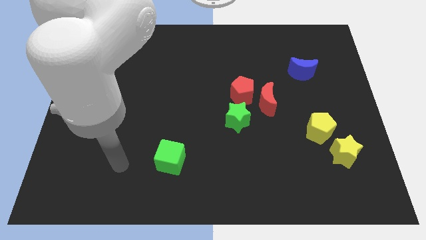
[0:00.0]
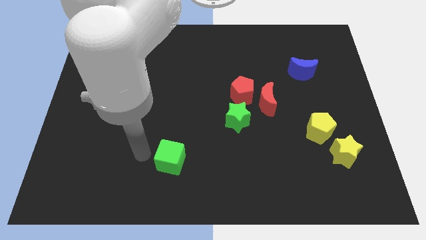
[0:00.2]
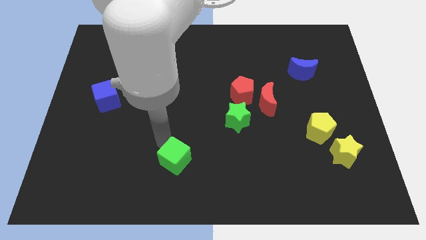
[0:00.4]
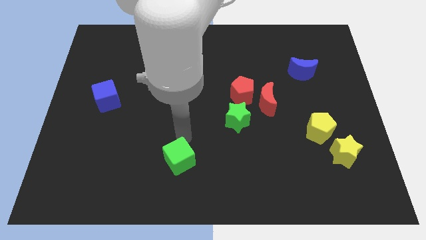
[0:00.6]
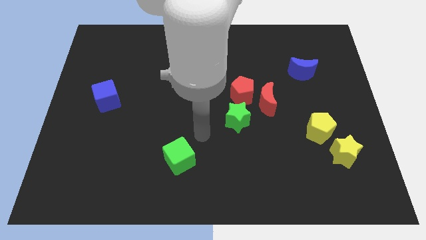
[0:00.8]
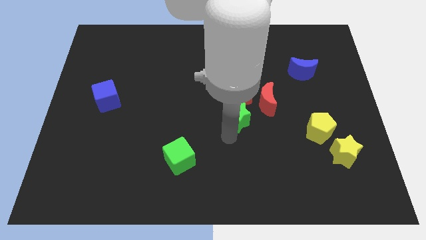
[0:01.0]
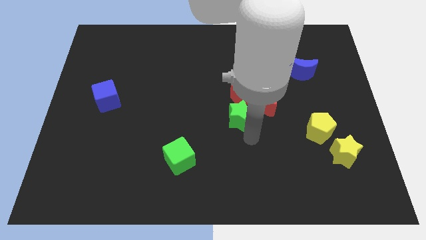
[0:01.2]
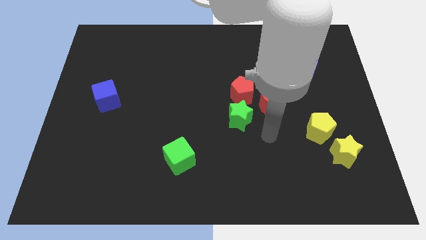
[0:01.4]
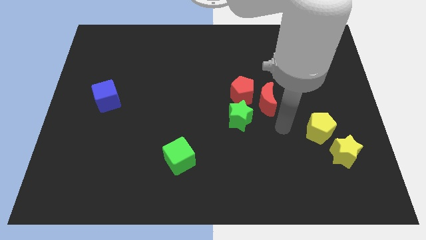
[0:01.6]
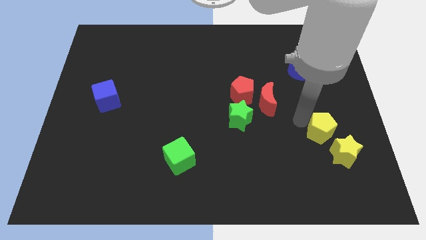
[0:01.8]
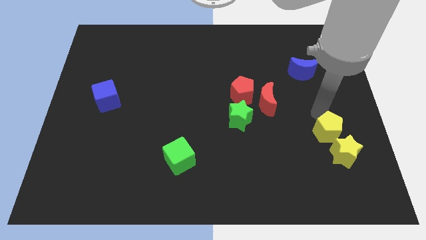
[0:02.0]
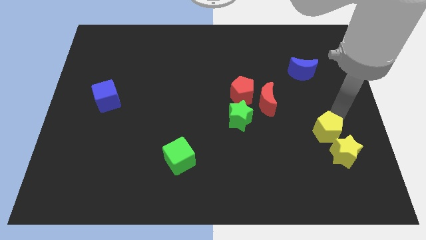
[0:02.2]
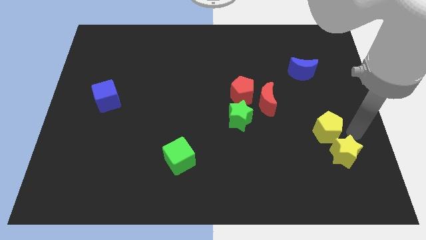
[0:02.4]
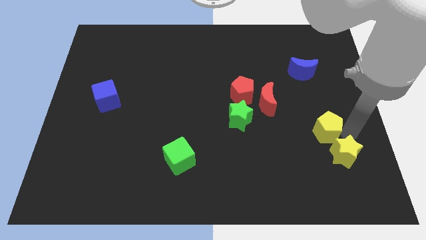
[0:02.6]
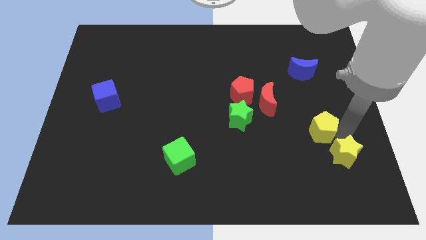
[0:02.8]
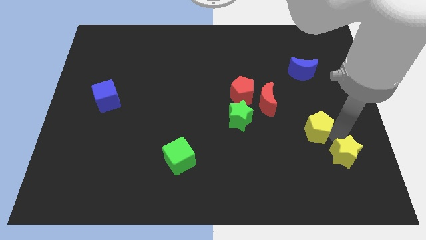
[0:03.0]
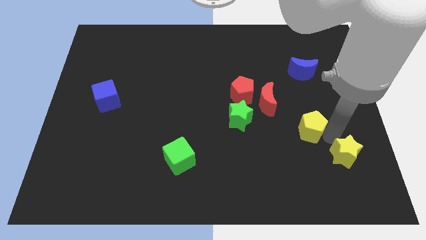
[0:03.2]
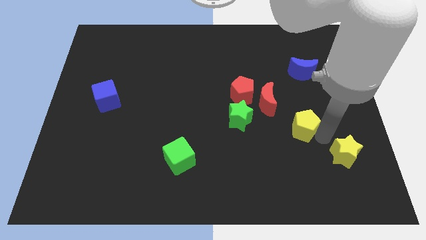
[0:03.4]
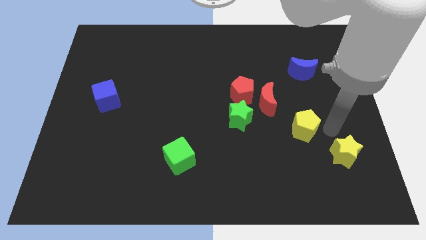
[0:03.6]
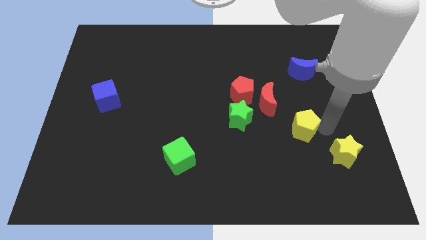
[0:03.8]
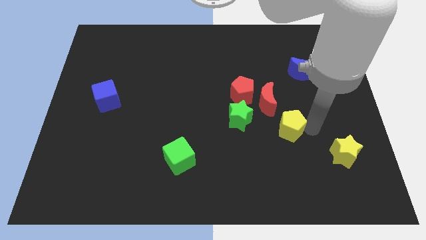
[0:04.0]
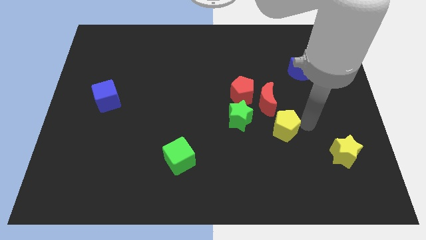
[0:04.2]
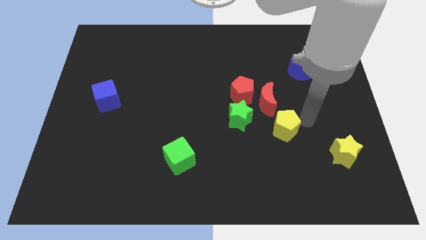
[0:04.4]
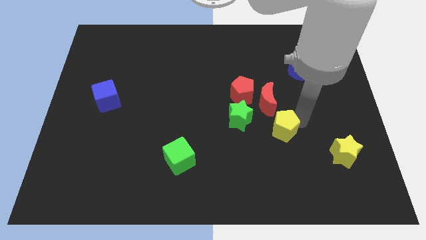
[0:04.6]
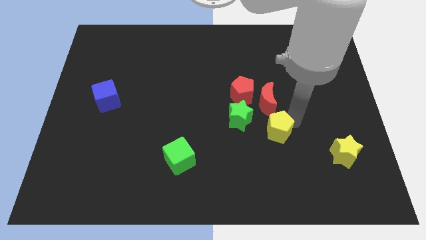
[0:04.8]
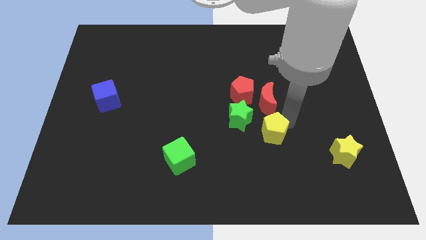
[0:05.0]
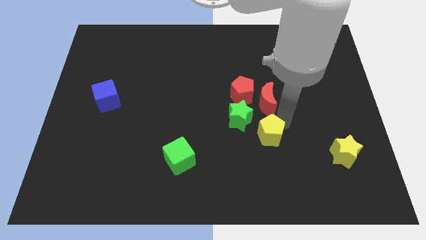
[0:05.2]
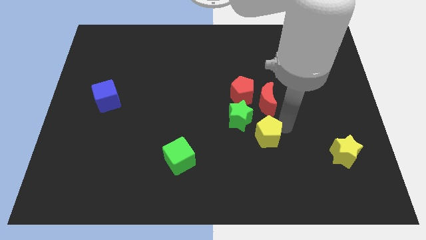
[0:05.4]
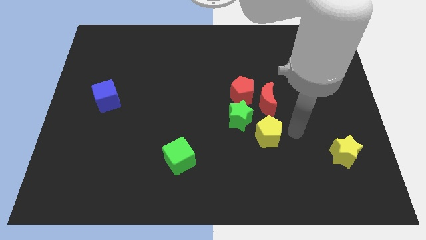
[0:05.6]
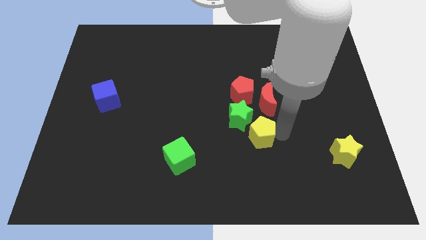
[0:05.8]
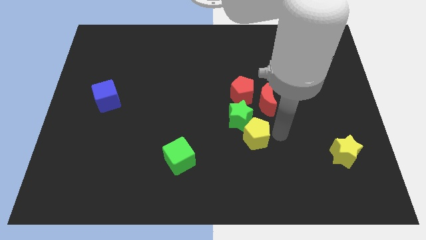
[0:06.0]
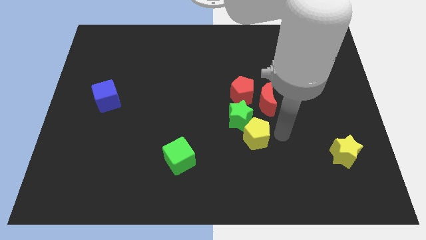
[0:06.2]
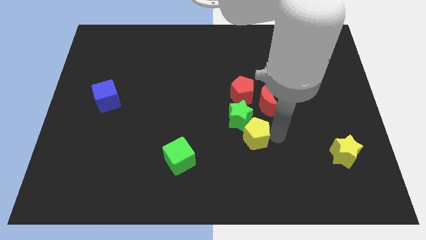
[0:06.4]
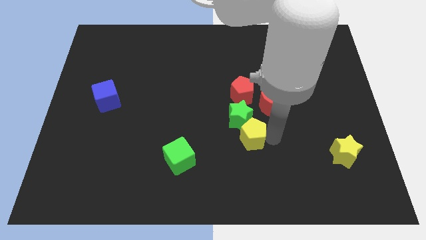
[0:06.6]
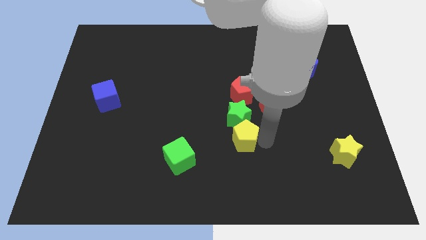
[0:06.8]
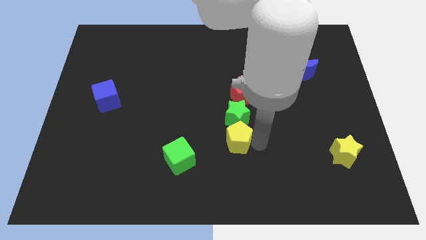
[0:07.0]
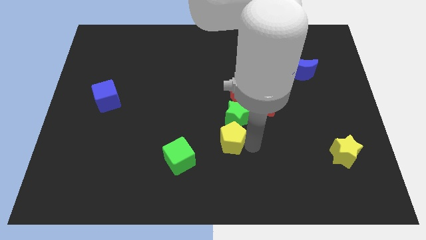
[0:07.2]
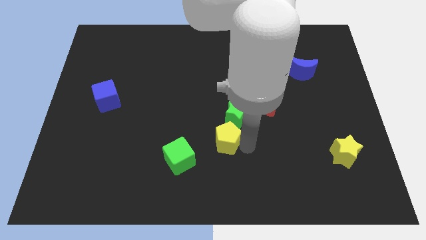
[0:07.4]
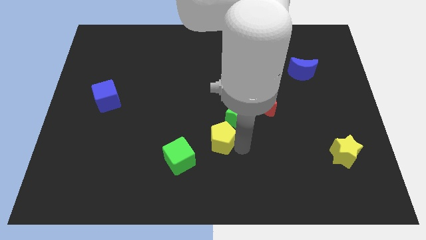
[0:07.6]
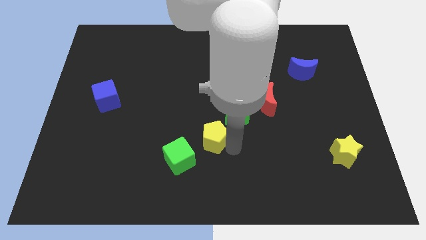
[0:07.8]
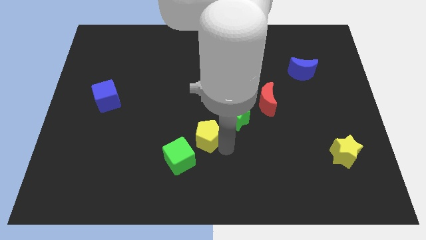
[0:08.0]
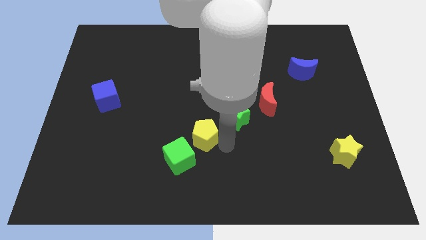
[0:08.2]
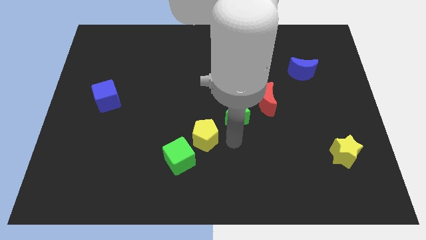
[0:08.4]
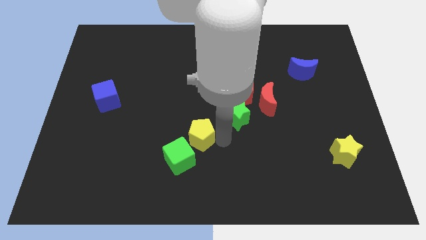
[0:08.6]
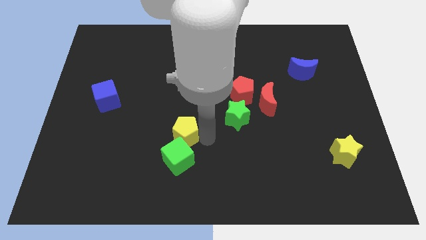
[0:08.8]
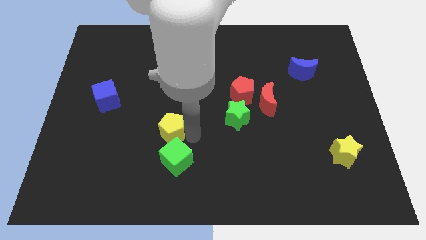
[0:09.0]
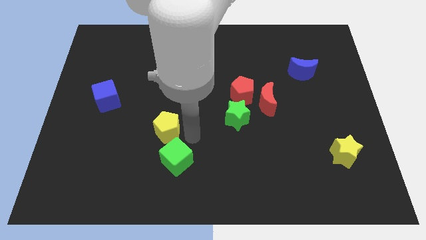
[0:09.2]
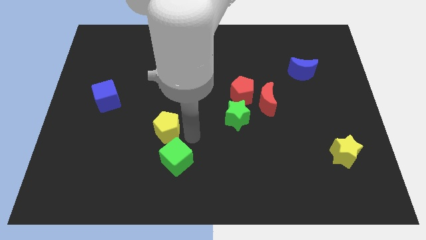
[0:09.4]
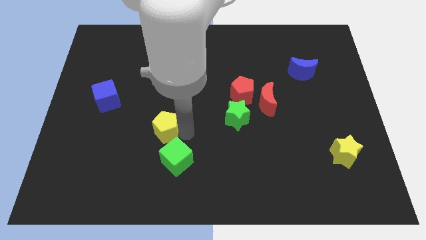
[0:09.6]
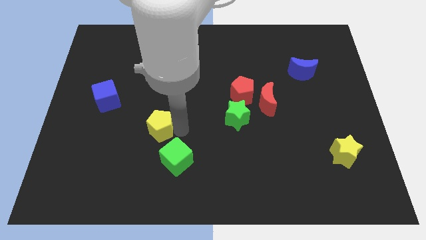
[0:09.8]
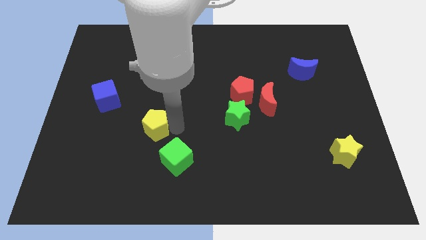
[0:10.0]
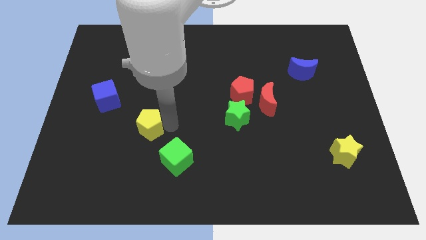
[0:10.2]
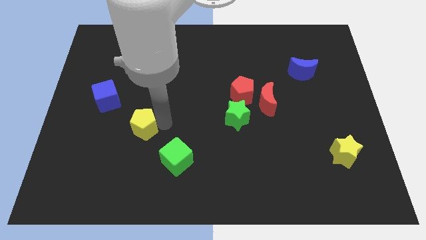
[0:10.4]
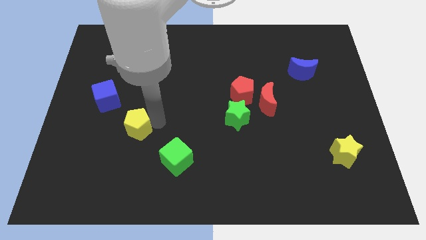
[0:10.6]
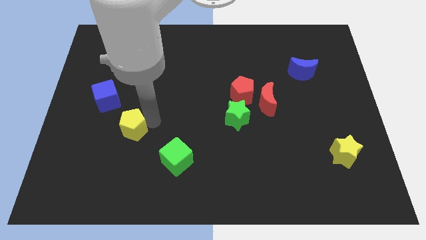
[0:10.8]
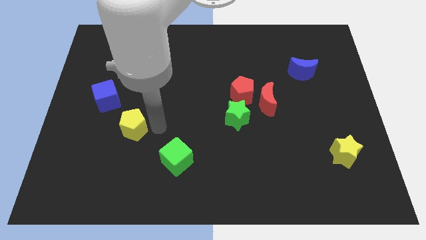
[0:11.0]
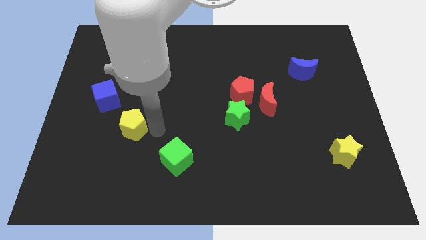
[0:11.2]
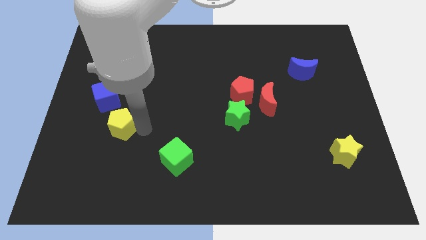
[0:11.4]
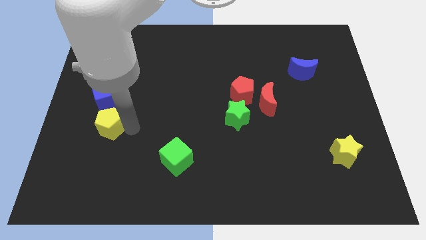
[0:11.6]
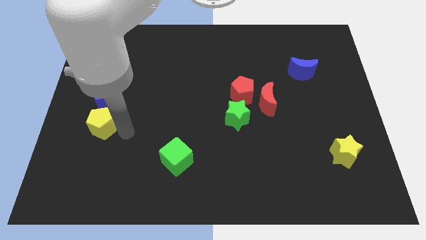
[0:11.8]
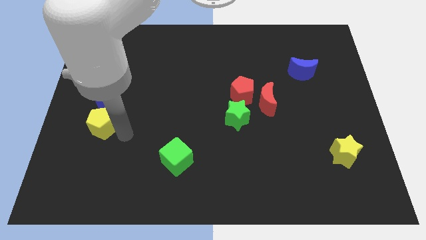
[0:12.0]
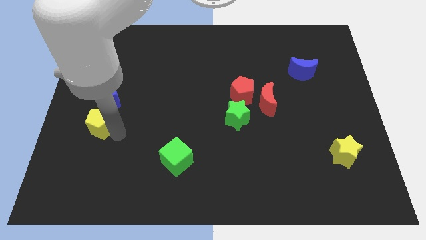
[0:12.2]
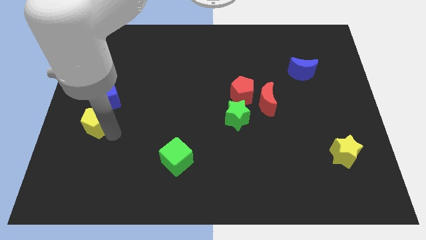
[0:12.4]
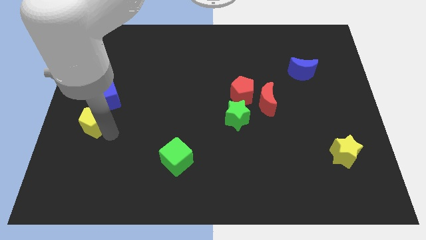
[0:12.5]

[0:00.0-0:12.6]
put the yellow pentagon to the center left

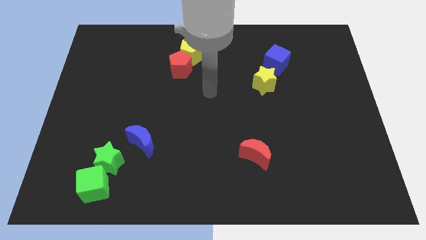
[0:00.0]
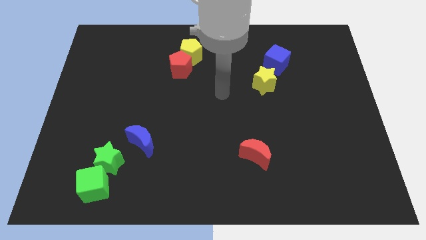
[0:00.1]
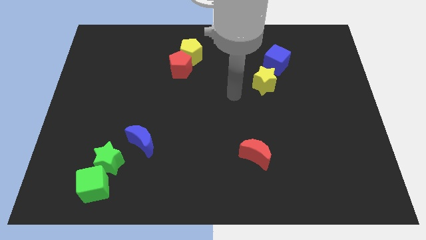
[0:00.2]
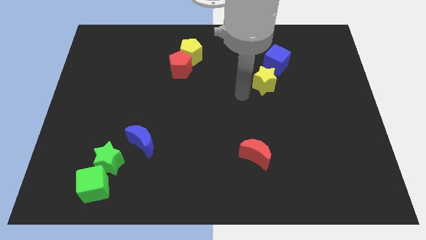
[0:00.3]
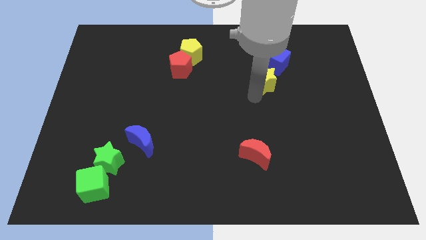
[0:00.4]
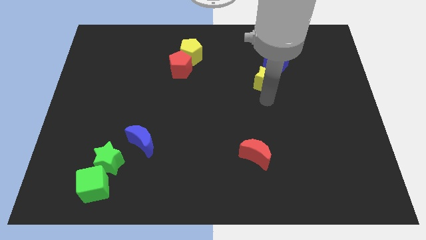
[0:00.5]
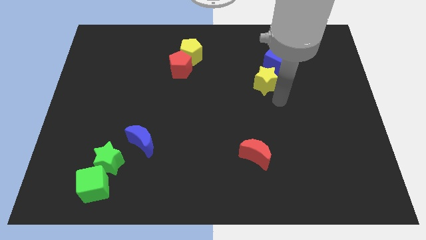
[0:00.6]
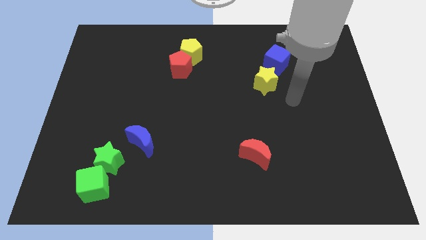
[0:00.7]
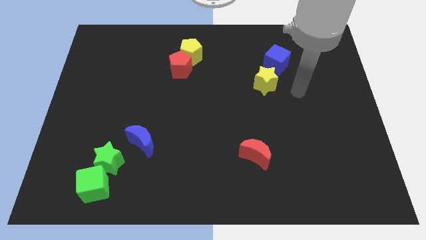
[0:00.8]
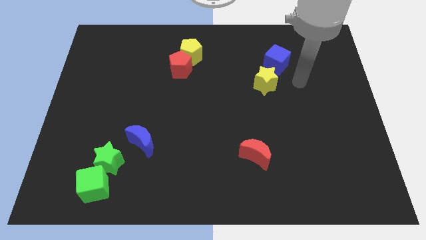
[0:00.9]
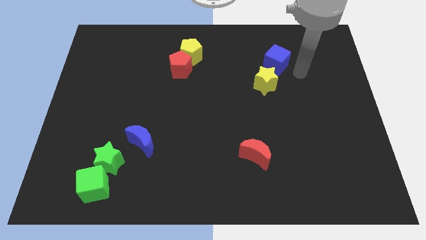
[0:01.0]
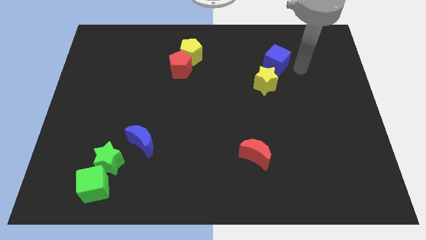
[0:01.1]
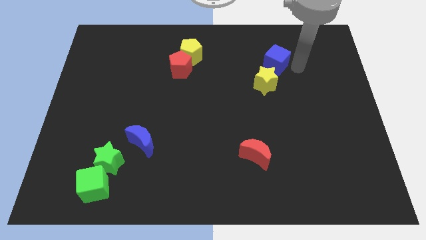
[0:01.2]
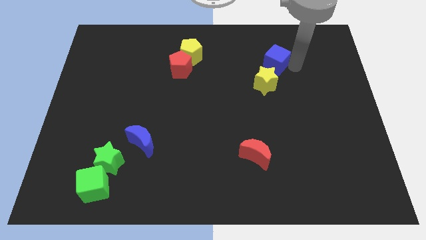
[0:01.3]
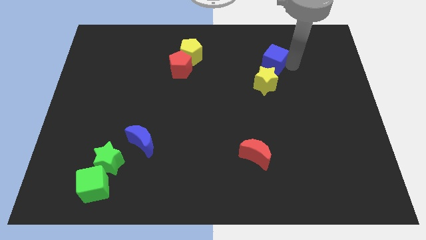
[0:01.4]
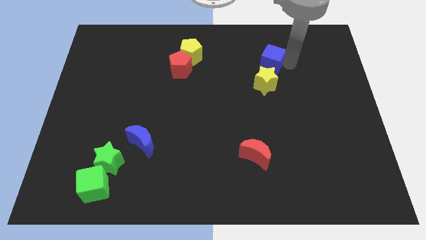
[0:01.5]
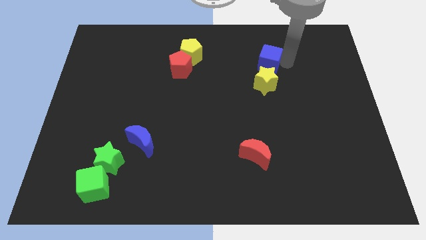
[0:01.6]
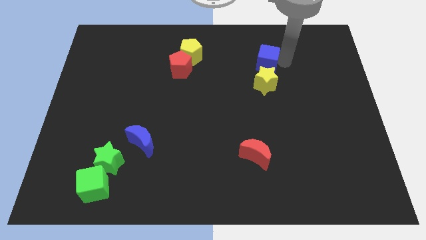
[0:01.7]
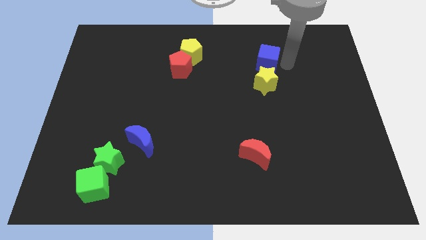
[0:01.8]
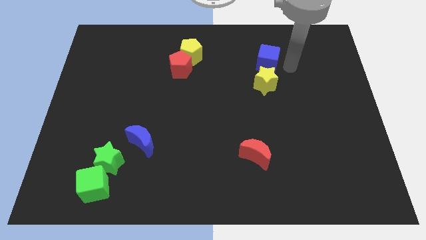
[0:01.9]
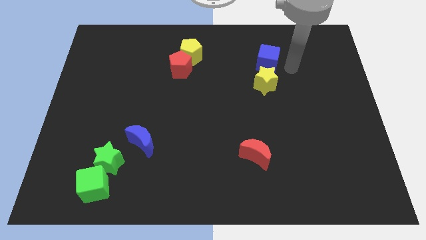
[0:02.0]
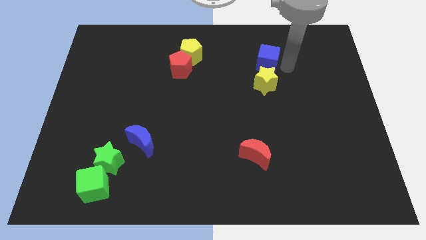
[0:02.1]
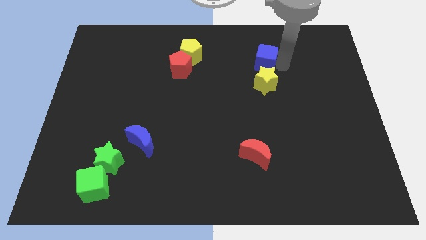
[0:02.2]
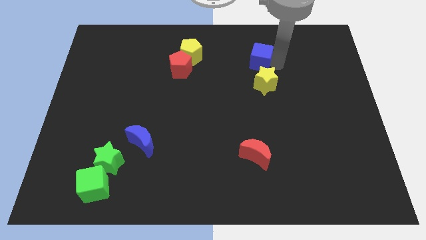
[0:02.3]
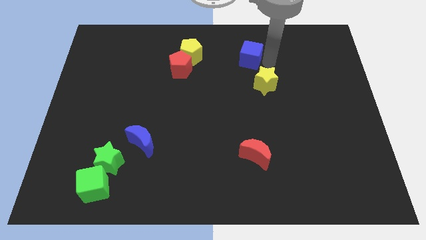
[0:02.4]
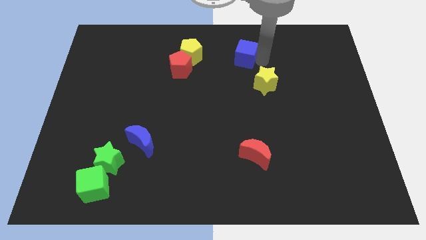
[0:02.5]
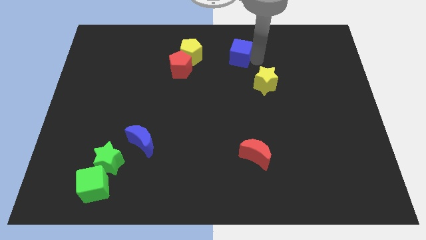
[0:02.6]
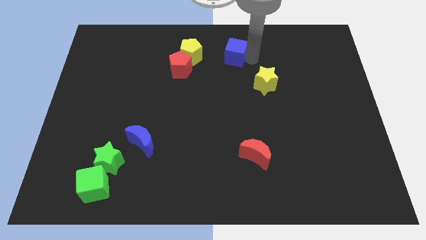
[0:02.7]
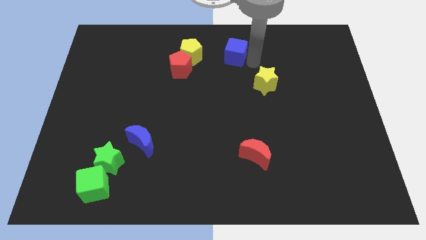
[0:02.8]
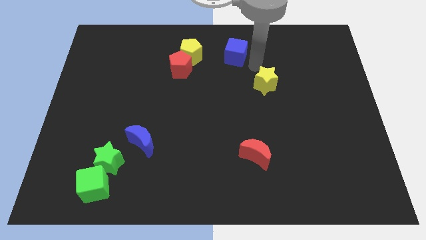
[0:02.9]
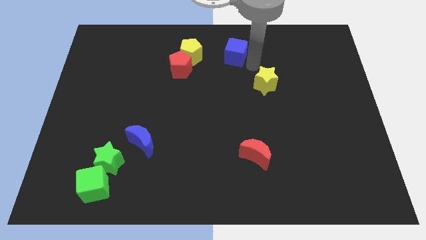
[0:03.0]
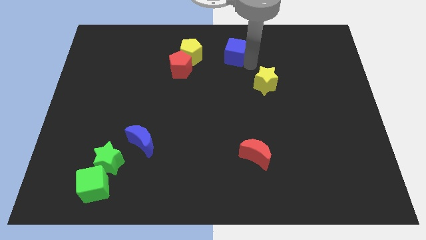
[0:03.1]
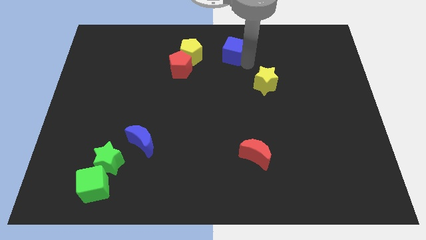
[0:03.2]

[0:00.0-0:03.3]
push the blue cube to the towards your base
